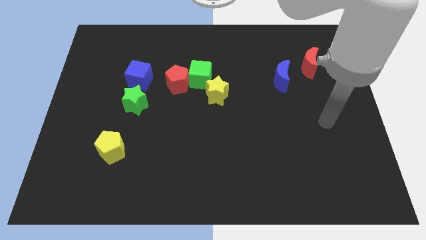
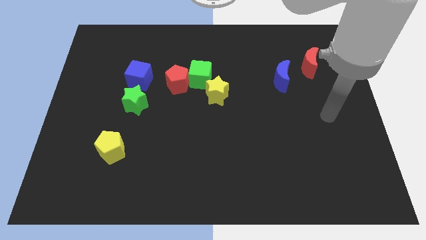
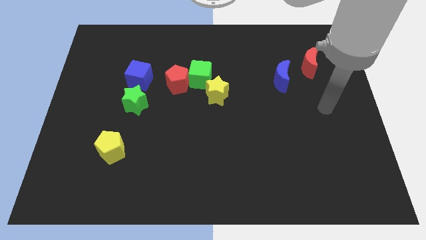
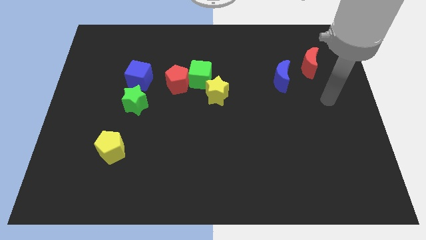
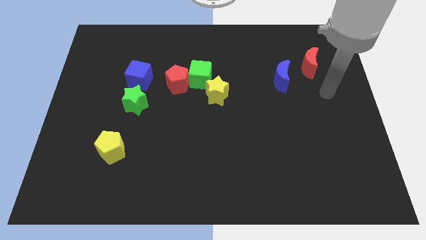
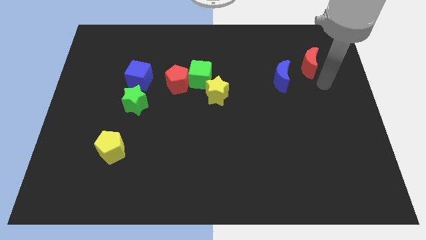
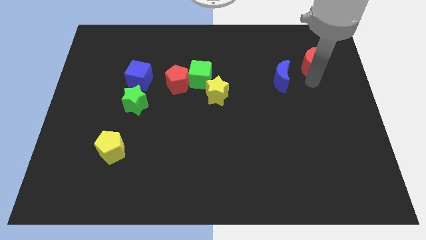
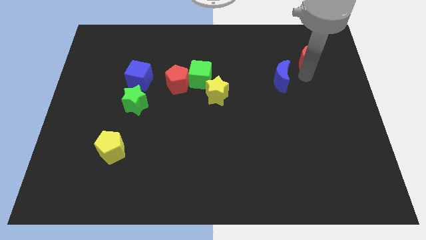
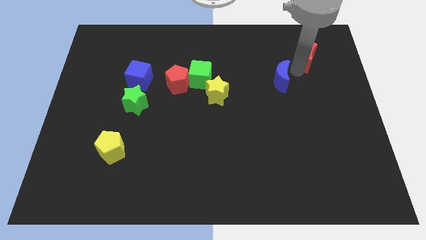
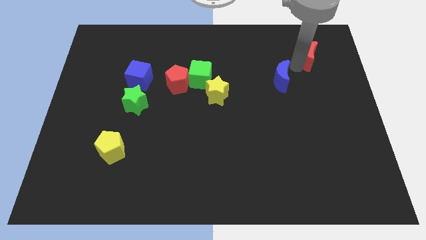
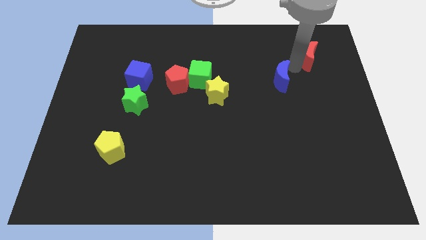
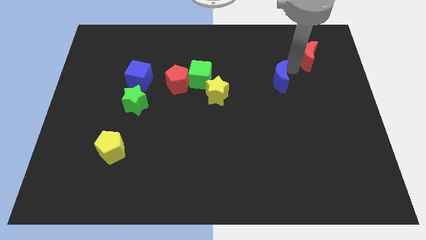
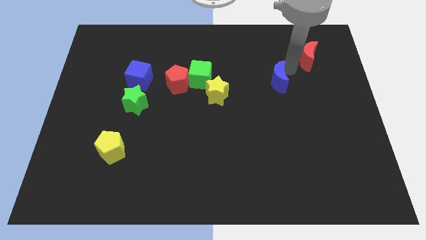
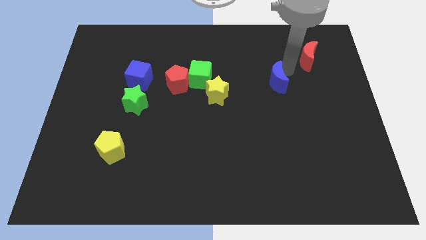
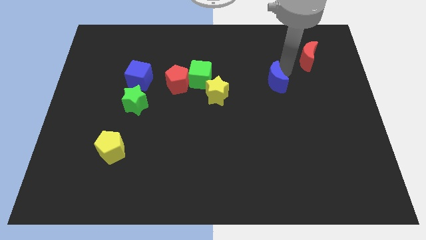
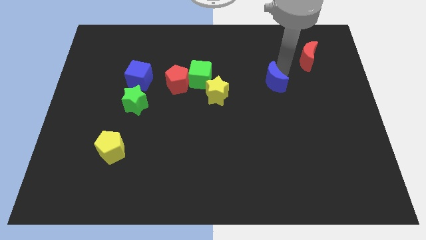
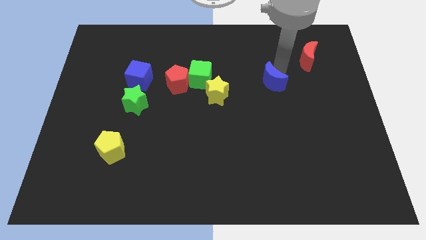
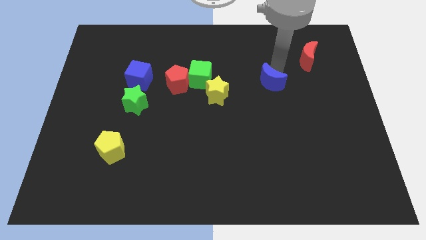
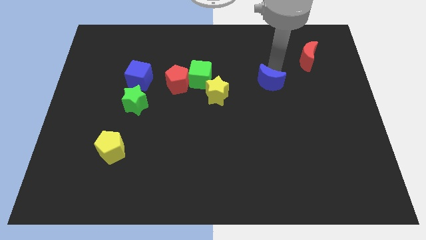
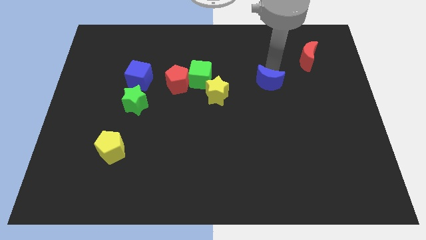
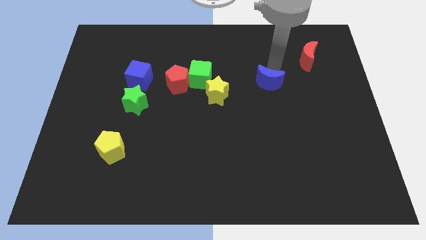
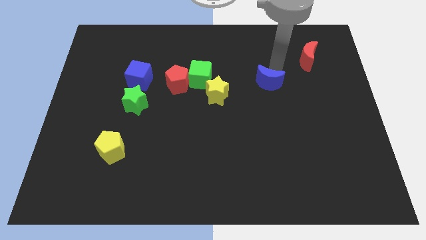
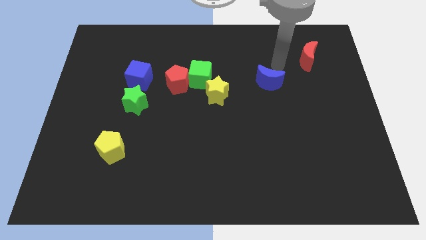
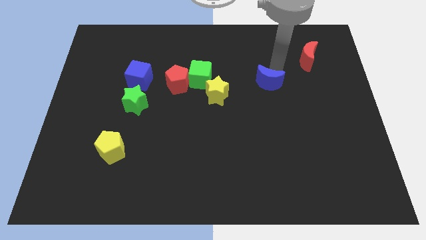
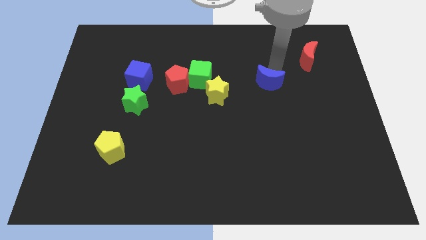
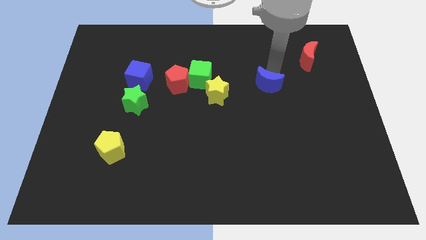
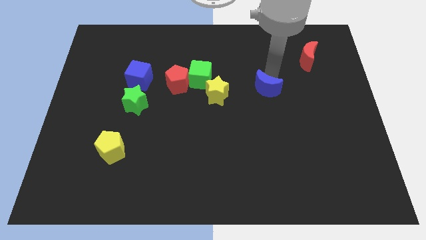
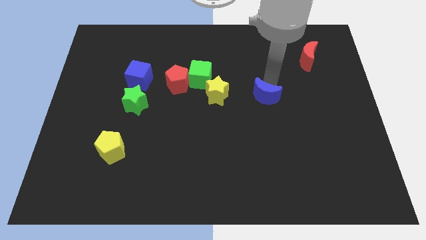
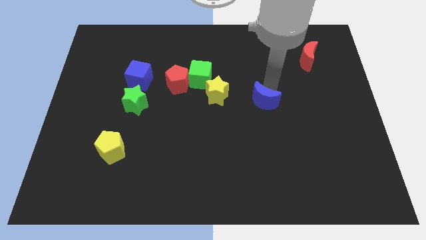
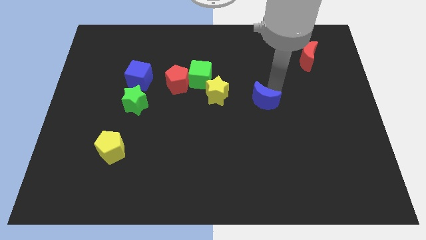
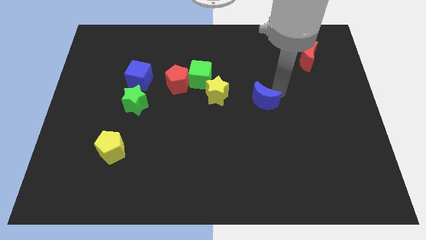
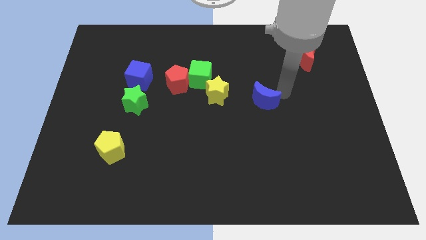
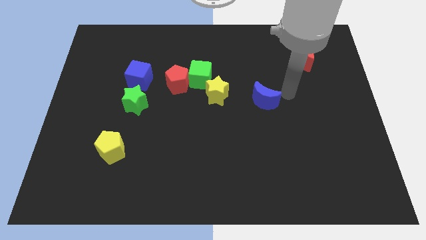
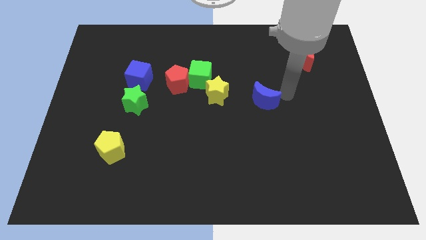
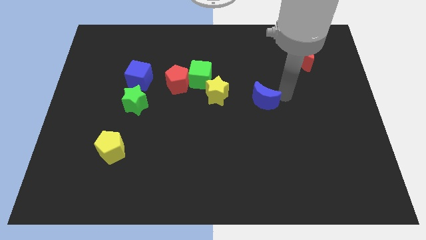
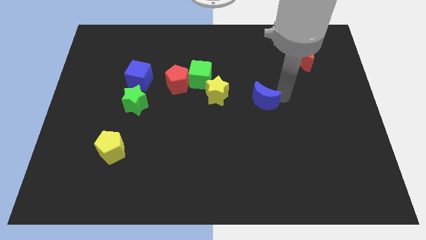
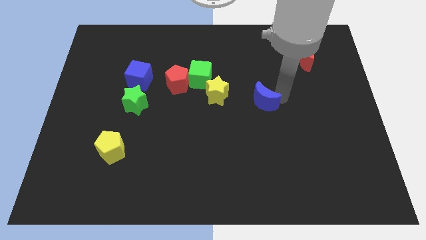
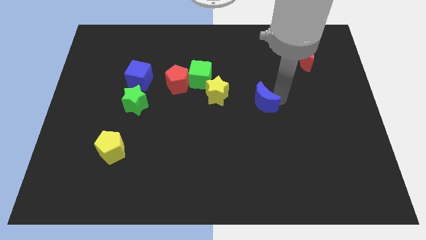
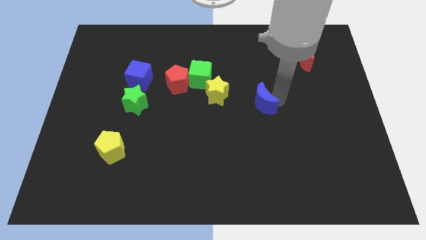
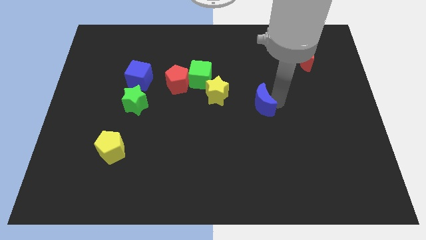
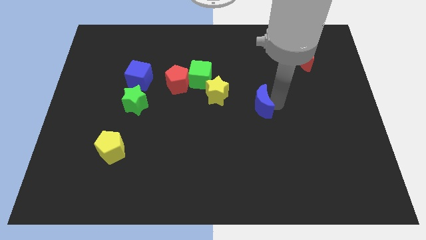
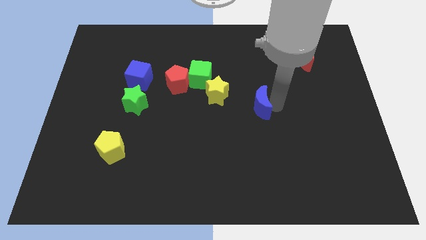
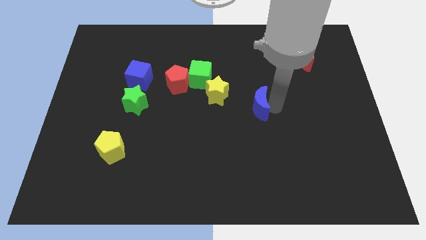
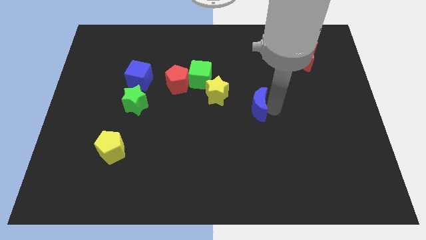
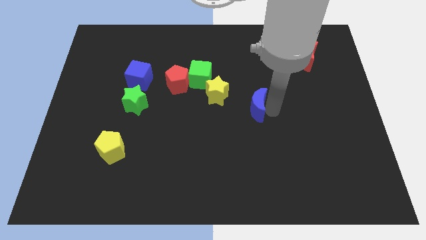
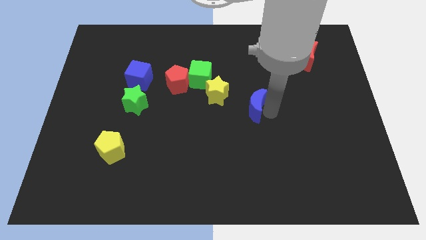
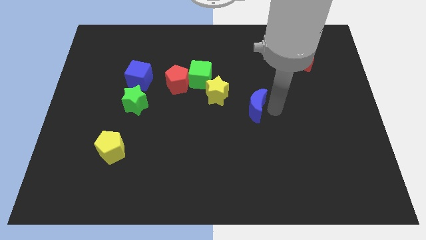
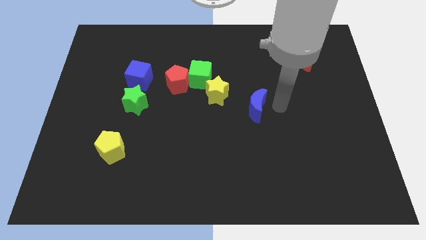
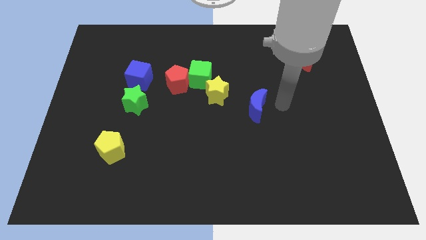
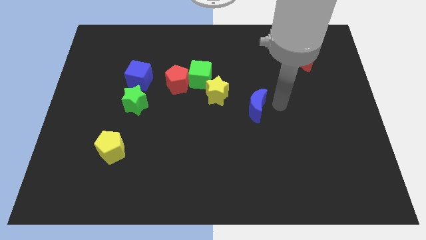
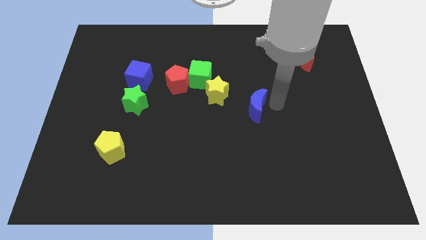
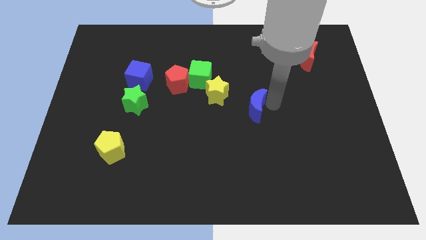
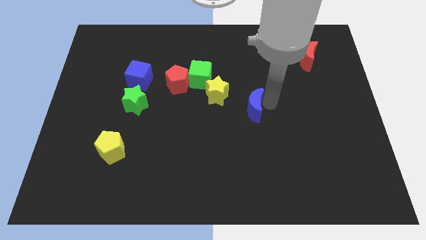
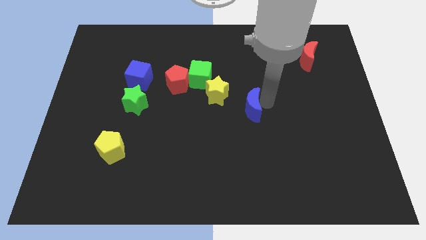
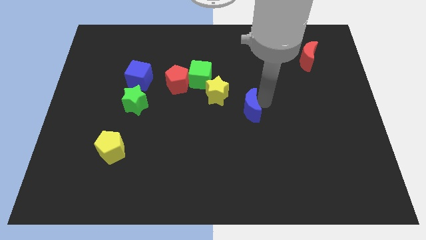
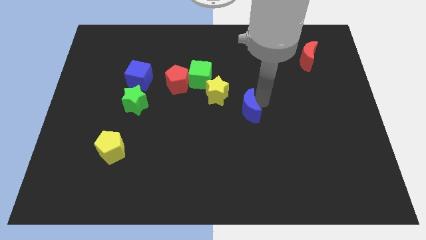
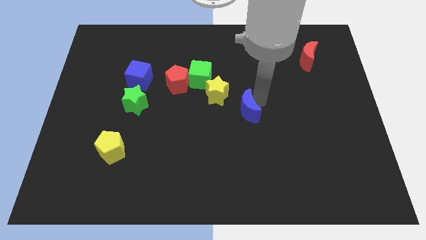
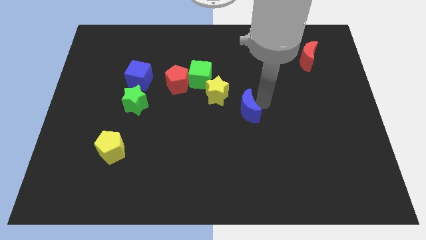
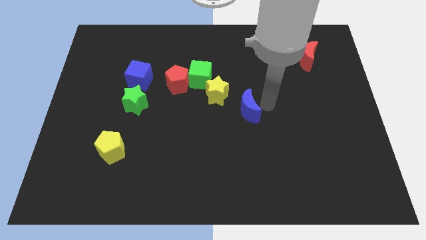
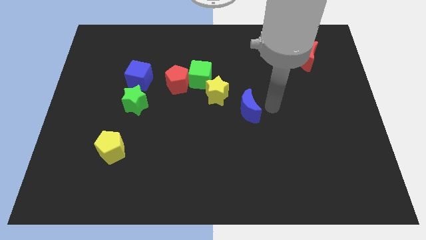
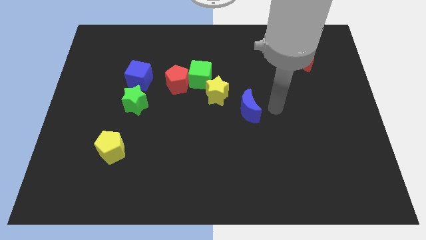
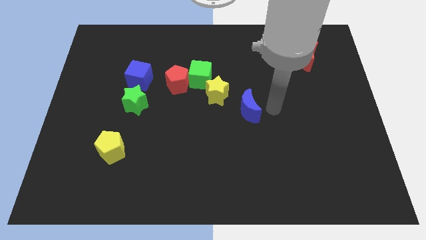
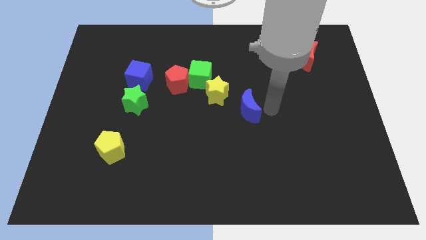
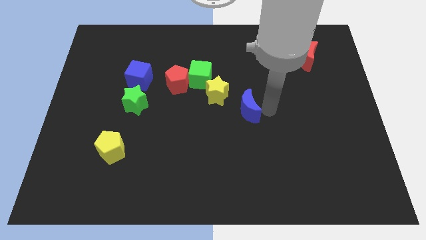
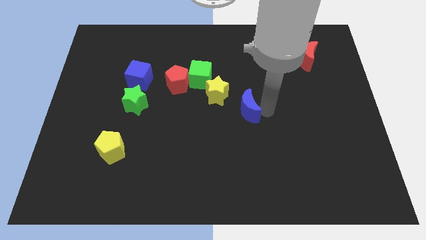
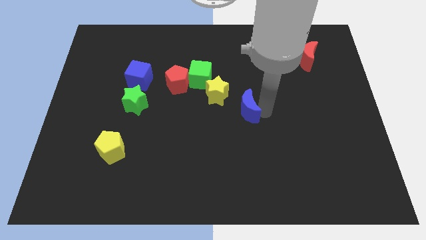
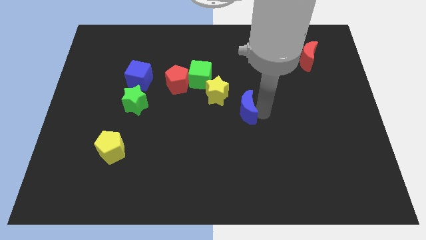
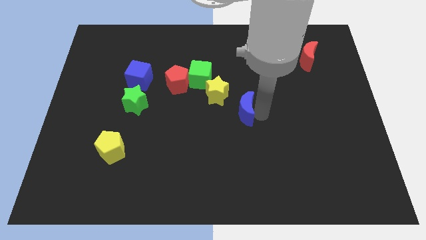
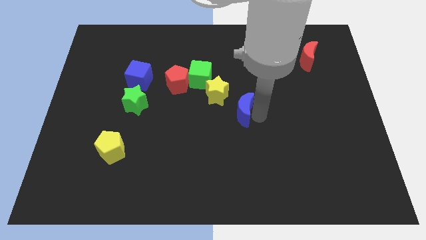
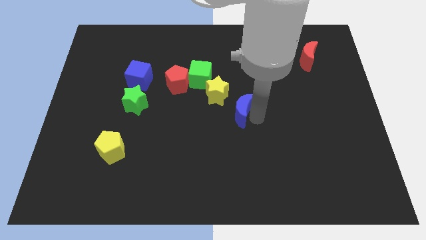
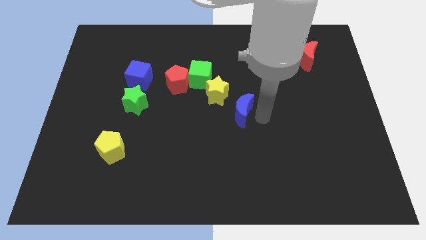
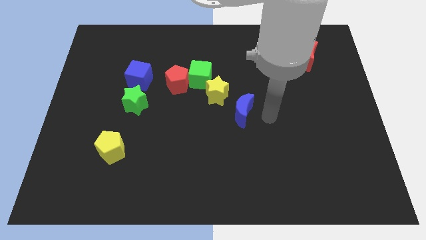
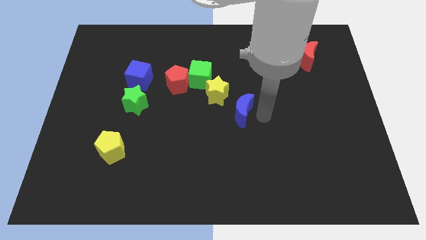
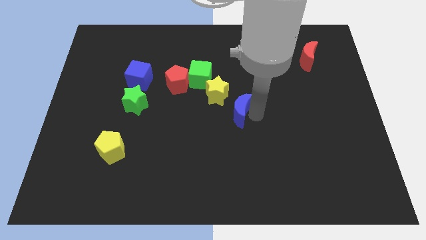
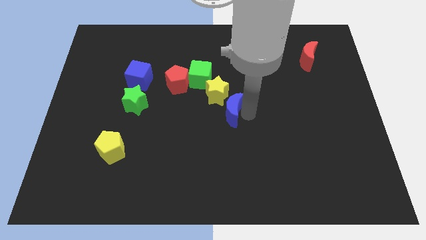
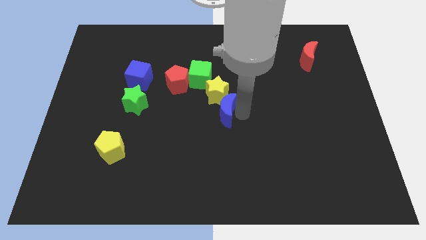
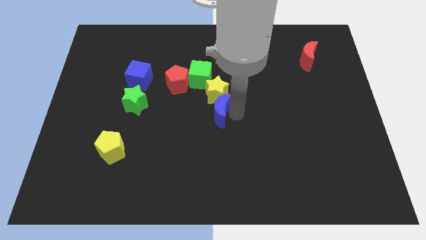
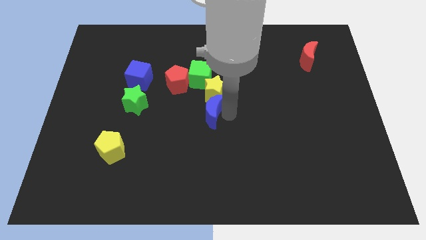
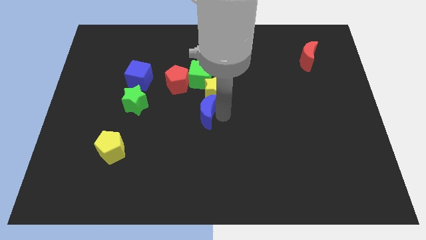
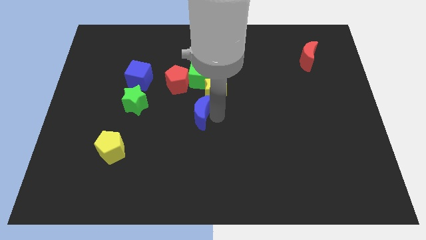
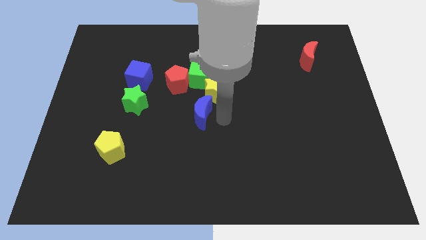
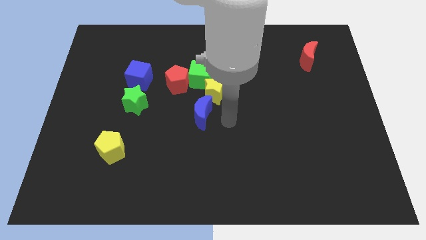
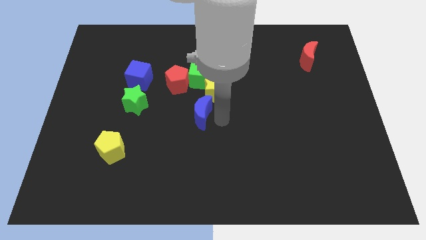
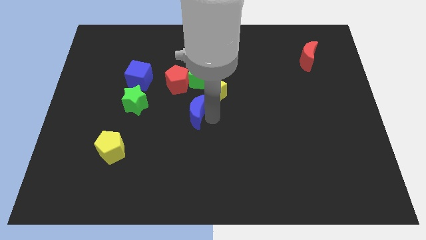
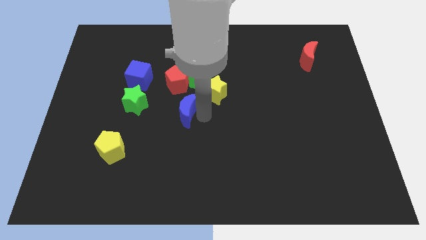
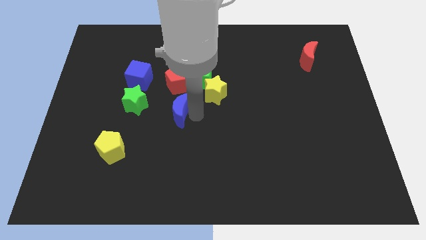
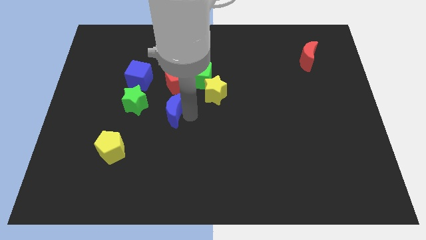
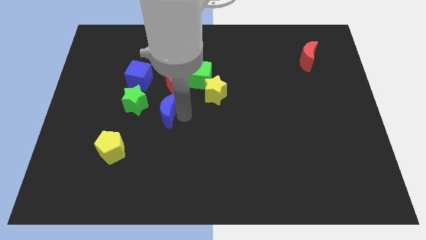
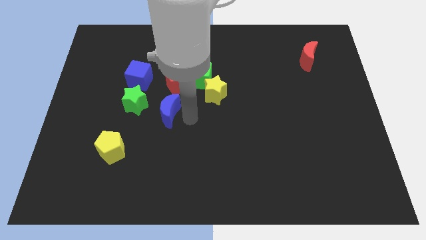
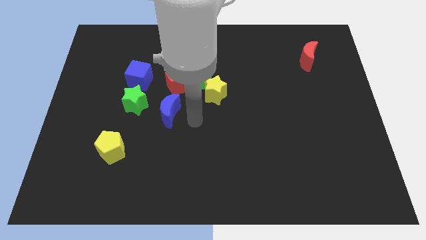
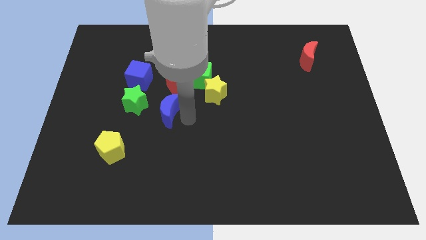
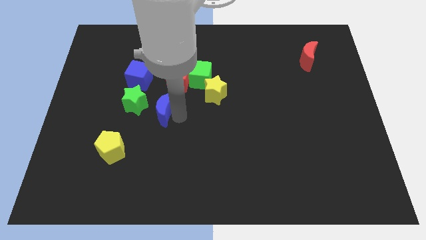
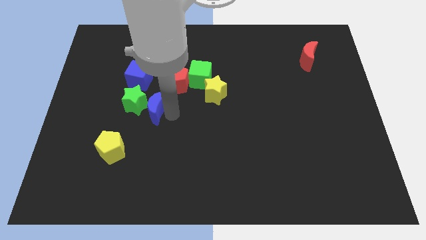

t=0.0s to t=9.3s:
push the blue moon towards the green star
